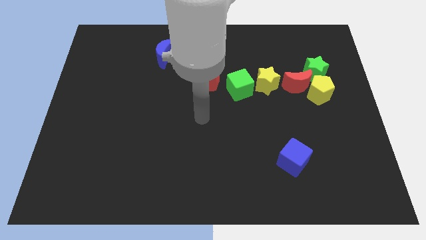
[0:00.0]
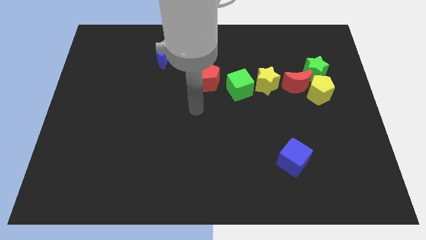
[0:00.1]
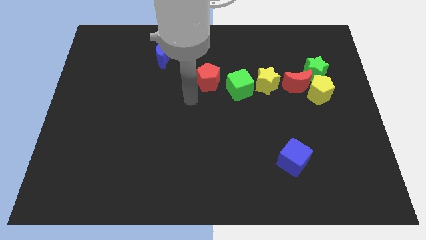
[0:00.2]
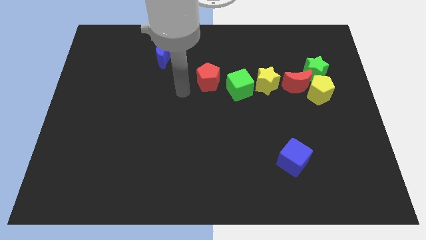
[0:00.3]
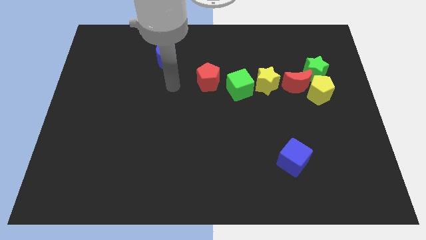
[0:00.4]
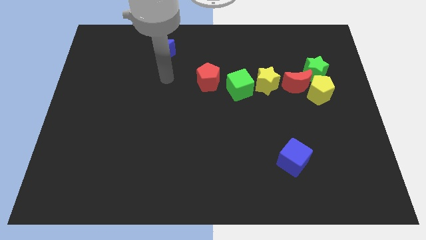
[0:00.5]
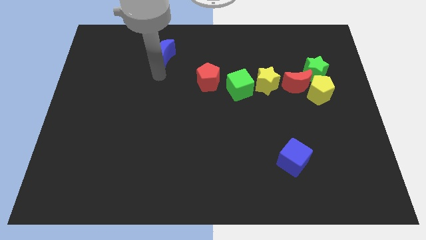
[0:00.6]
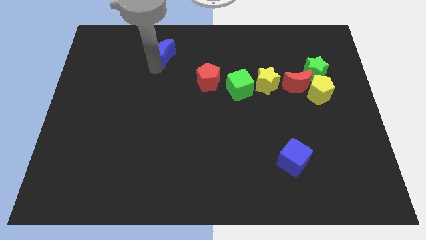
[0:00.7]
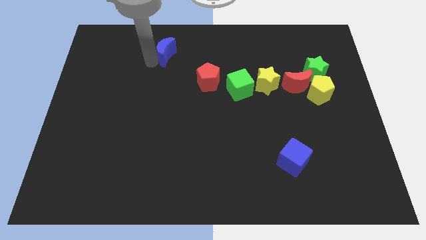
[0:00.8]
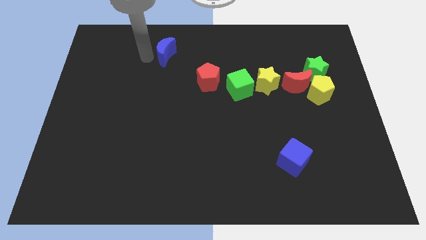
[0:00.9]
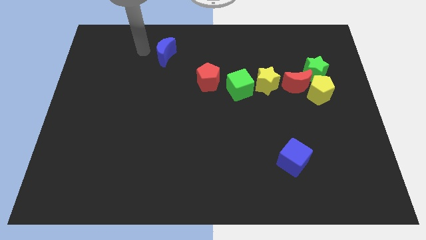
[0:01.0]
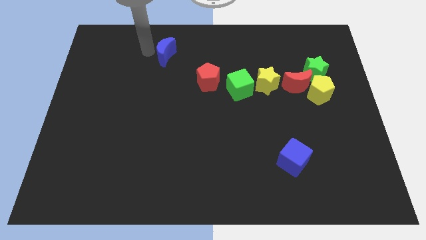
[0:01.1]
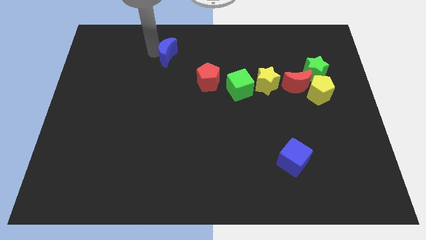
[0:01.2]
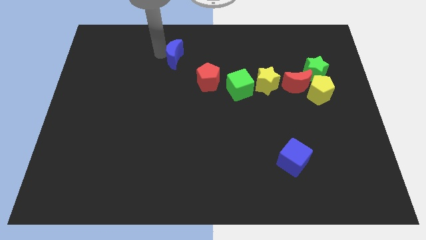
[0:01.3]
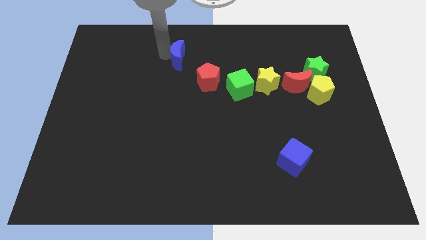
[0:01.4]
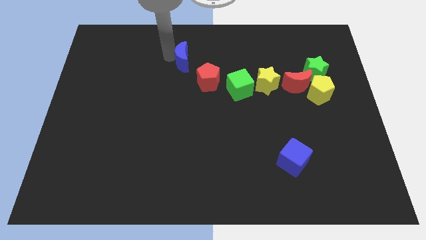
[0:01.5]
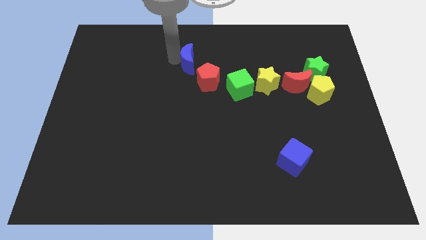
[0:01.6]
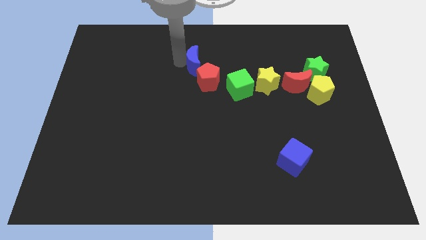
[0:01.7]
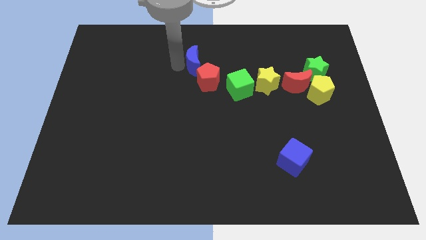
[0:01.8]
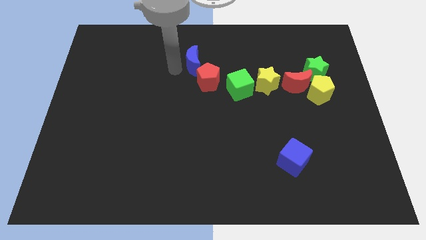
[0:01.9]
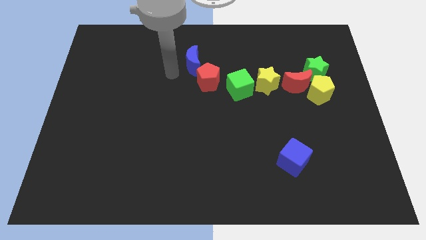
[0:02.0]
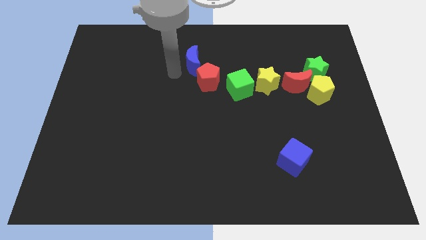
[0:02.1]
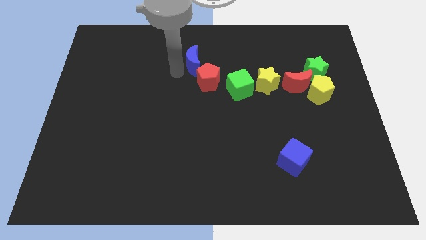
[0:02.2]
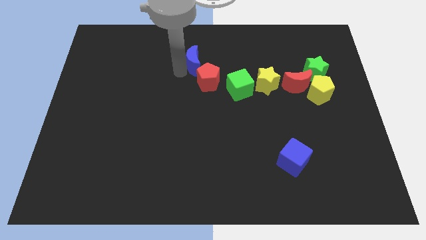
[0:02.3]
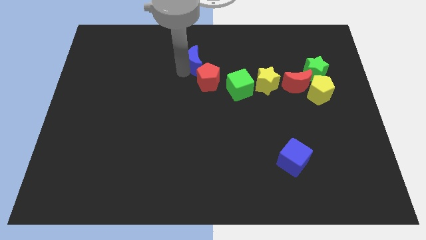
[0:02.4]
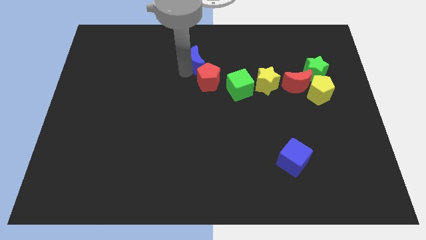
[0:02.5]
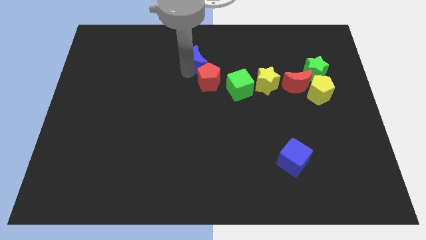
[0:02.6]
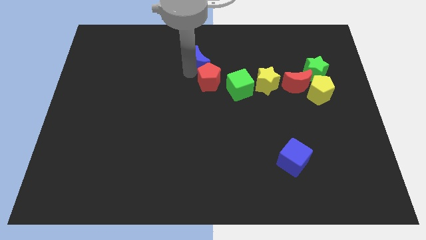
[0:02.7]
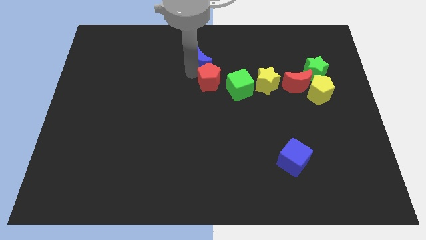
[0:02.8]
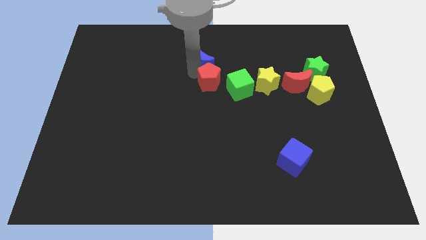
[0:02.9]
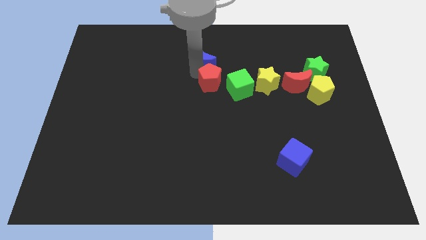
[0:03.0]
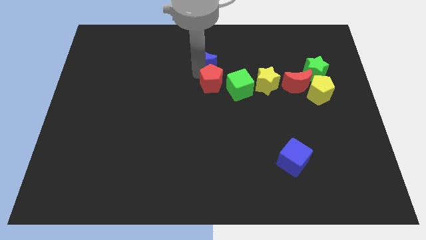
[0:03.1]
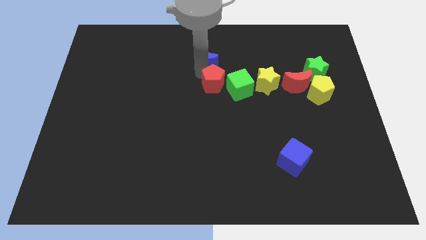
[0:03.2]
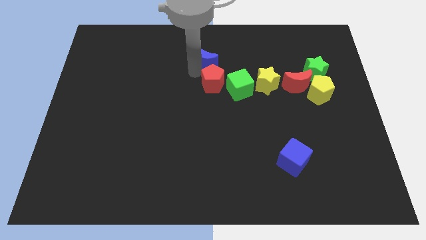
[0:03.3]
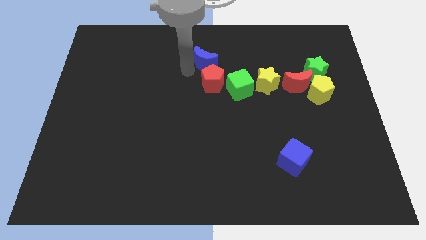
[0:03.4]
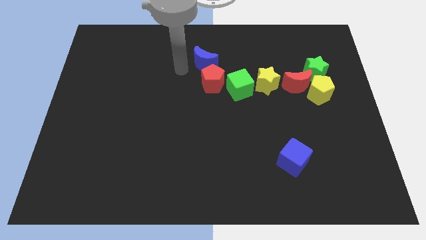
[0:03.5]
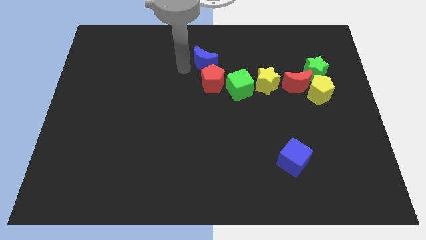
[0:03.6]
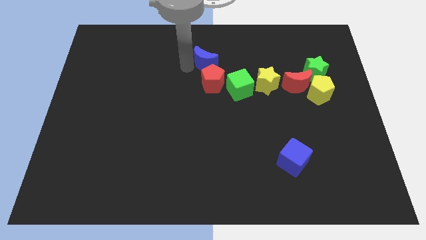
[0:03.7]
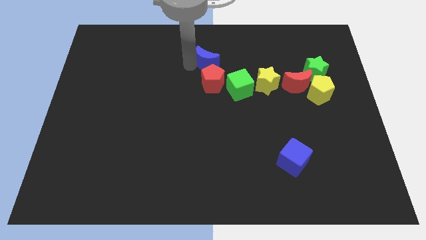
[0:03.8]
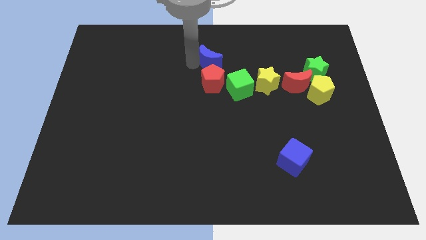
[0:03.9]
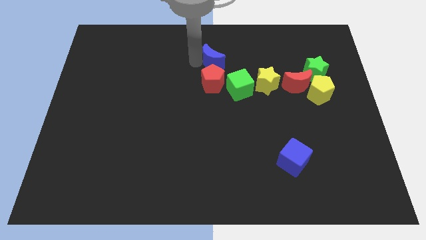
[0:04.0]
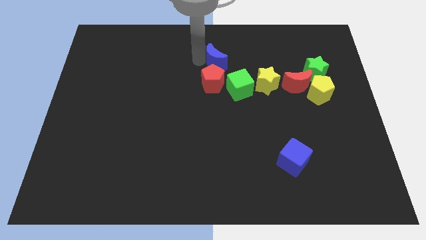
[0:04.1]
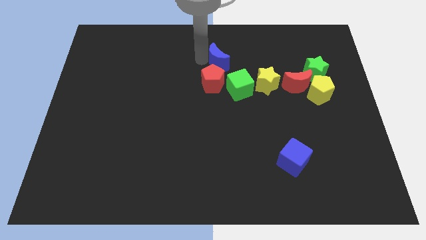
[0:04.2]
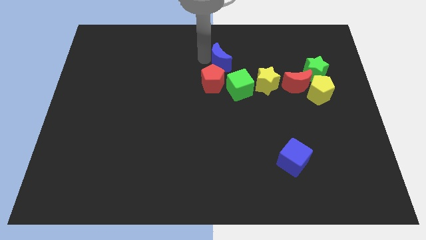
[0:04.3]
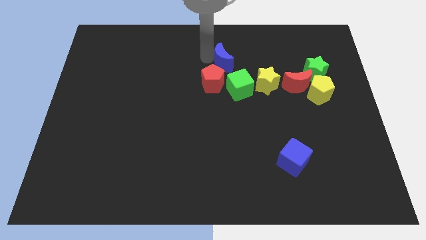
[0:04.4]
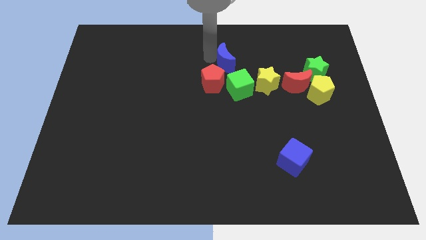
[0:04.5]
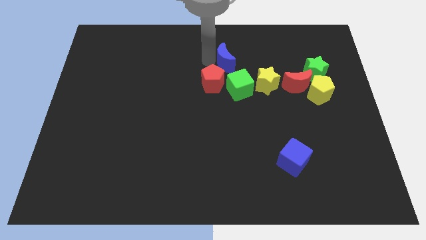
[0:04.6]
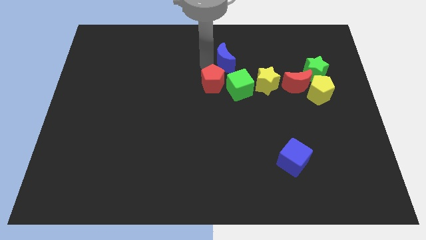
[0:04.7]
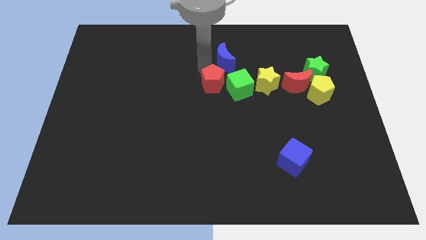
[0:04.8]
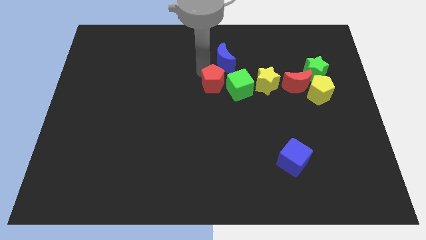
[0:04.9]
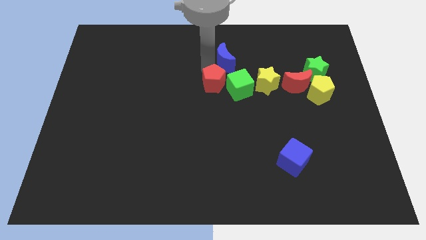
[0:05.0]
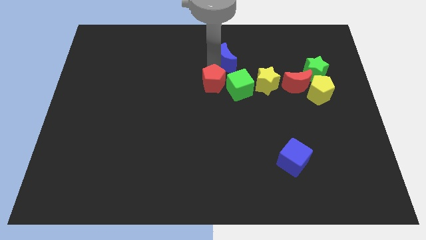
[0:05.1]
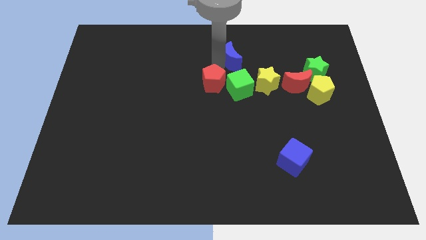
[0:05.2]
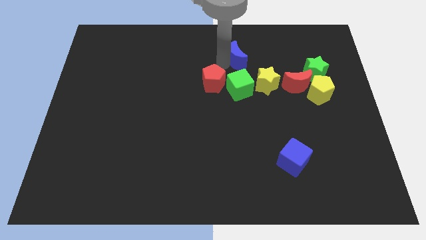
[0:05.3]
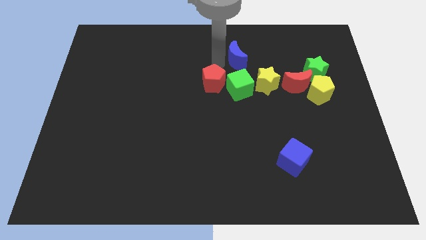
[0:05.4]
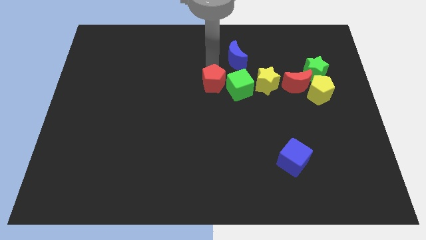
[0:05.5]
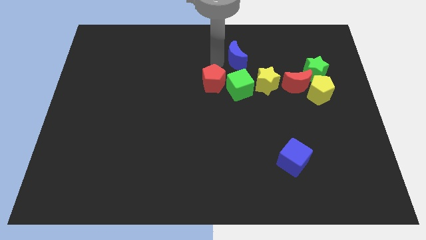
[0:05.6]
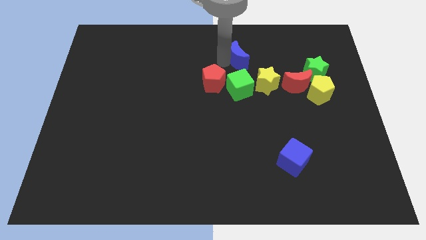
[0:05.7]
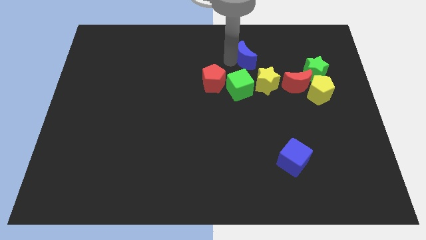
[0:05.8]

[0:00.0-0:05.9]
push the blue moon to the top of the yellow star

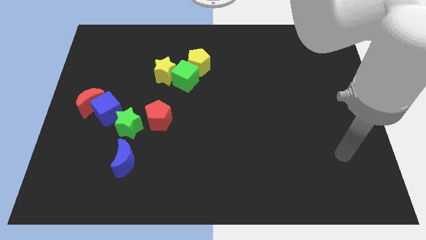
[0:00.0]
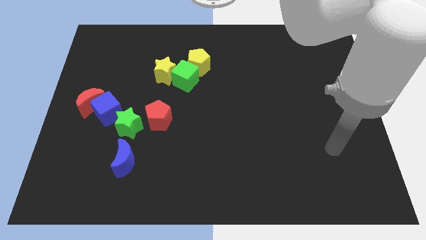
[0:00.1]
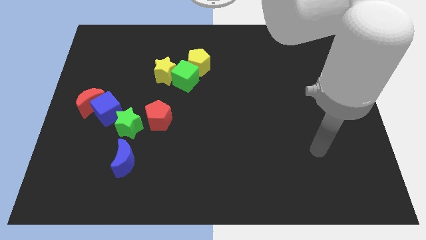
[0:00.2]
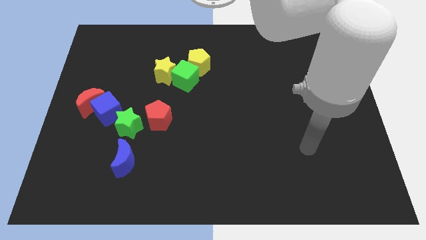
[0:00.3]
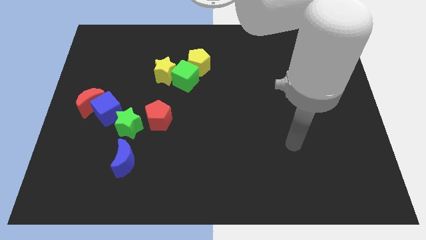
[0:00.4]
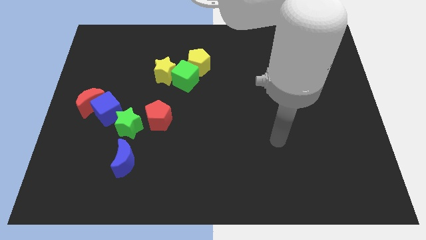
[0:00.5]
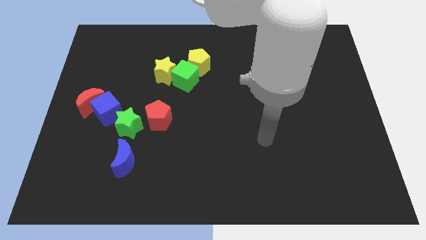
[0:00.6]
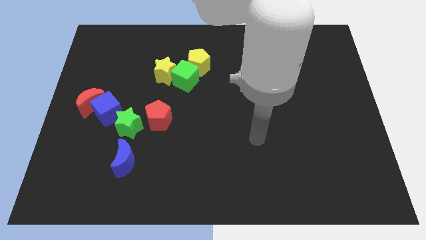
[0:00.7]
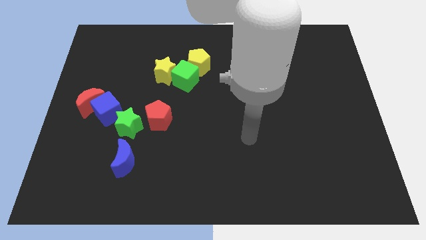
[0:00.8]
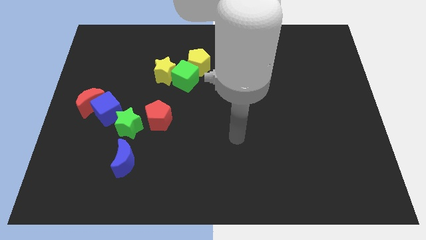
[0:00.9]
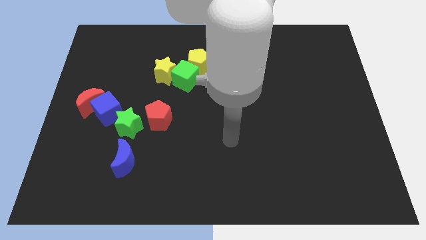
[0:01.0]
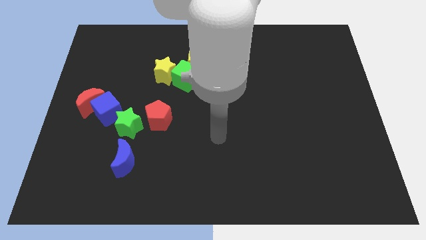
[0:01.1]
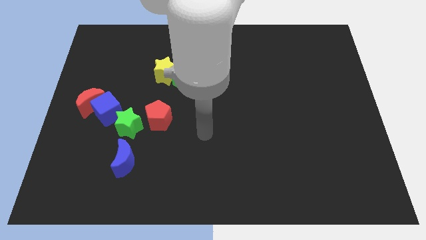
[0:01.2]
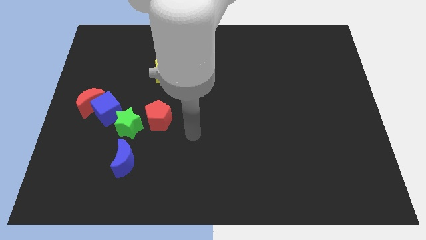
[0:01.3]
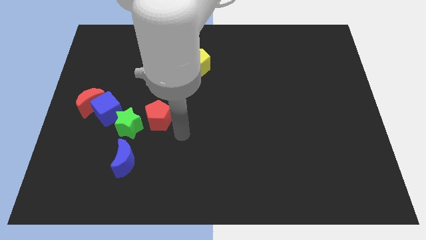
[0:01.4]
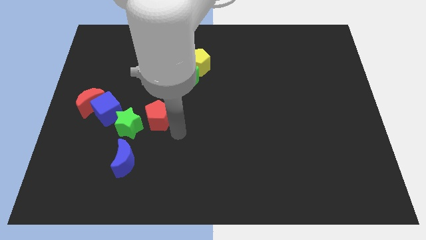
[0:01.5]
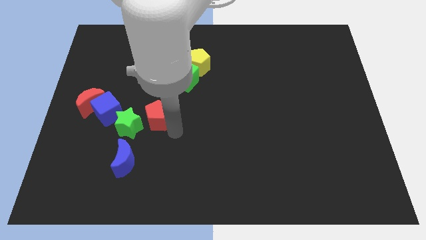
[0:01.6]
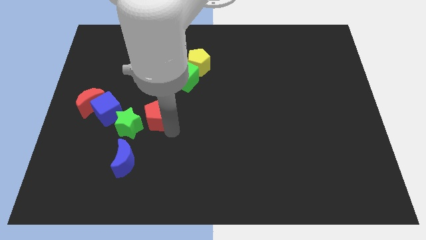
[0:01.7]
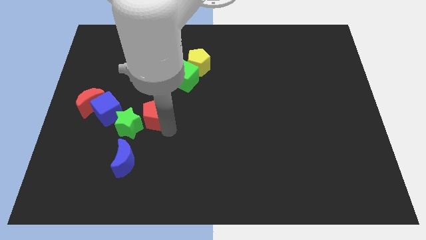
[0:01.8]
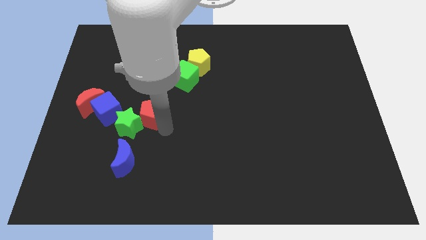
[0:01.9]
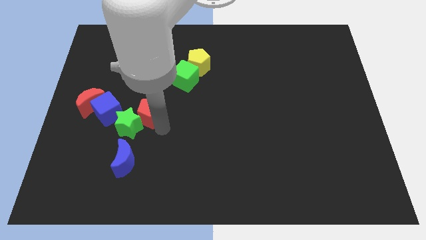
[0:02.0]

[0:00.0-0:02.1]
put the red pentagon just right of the red moon
